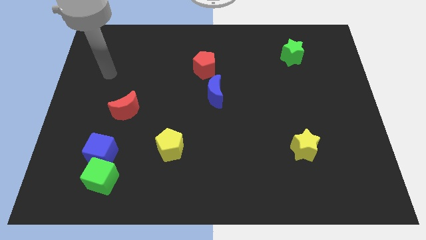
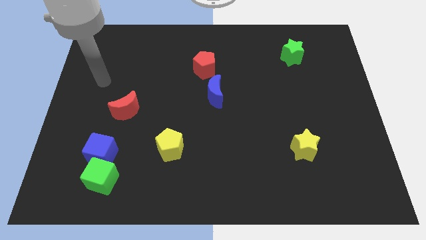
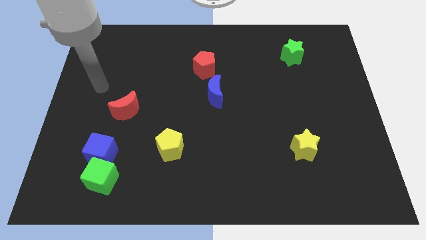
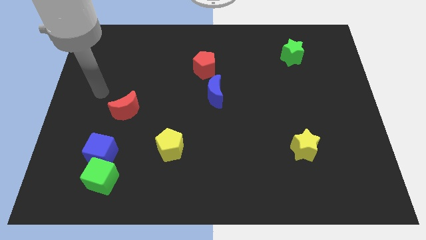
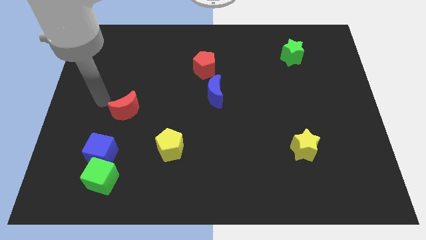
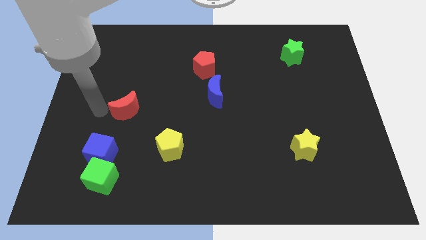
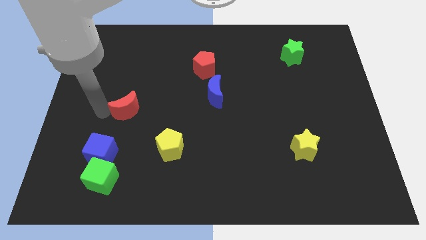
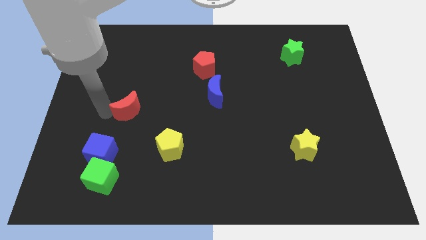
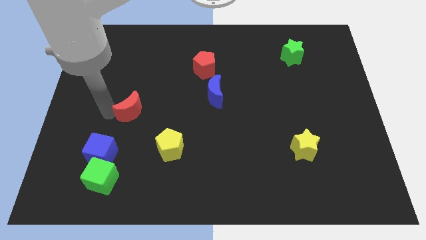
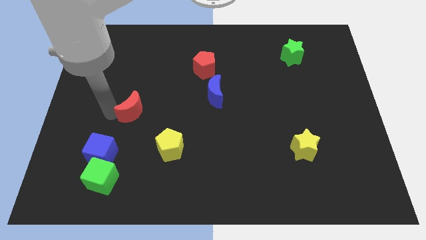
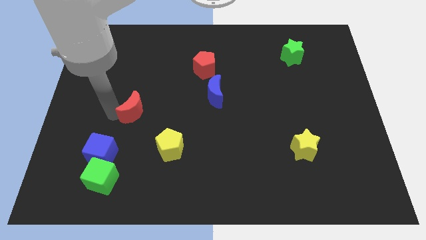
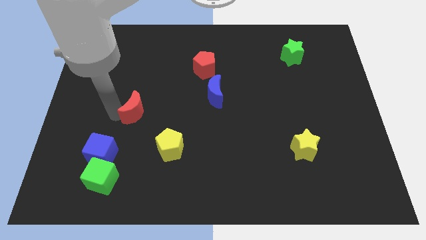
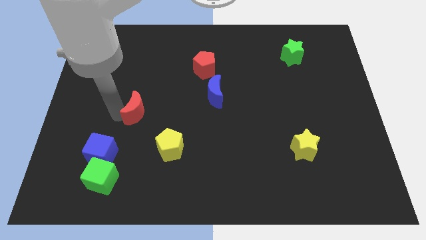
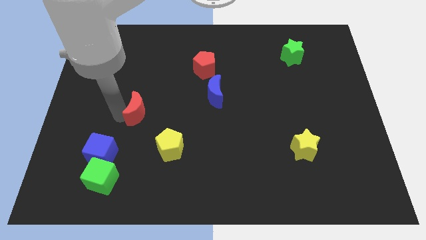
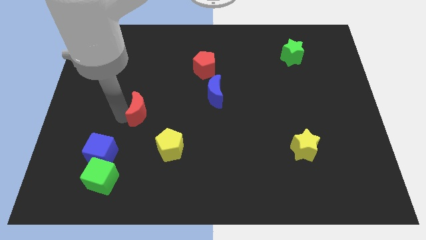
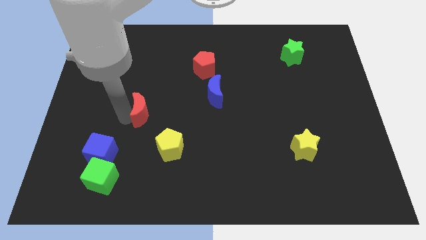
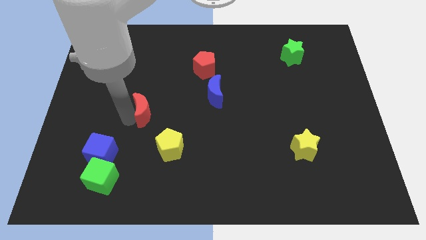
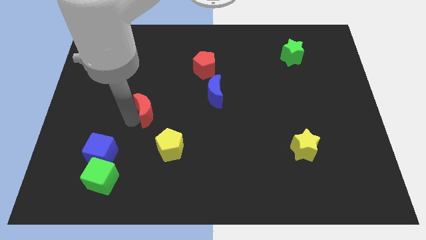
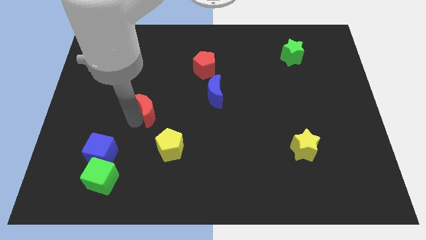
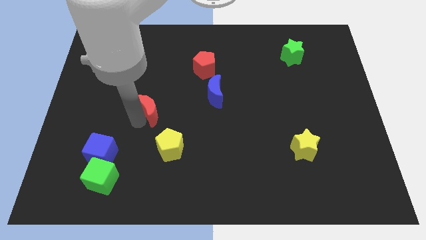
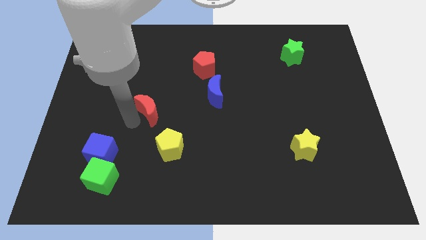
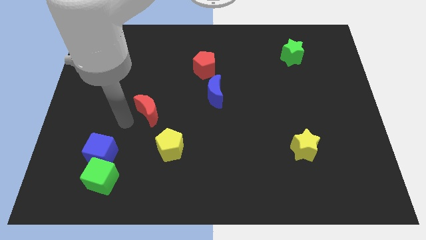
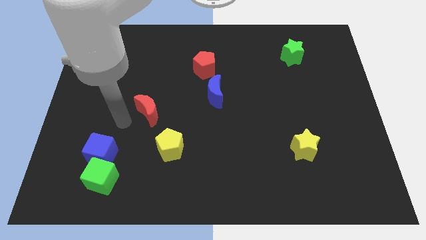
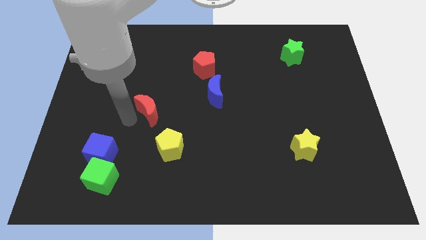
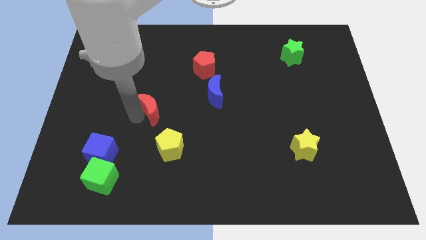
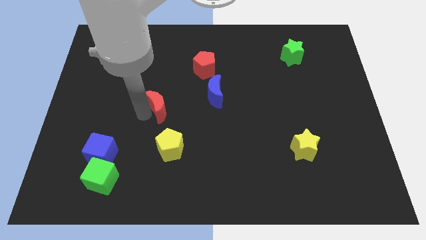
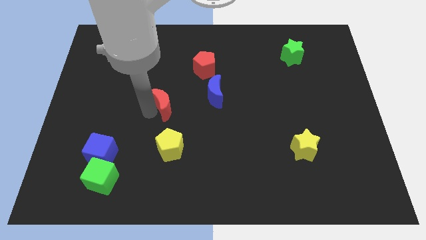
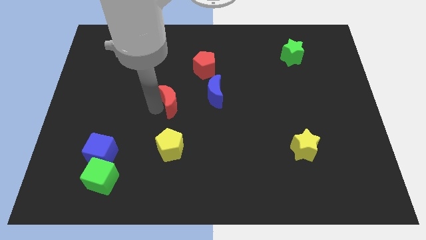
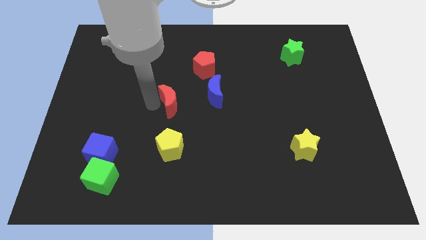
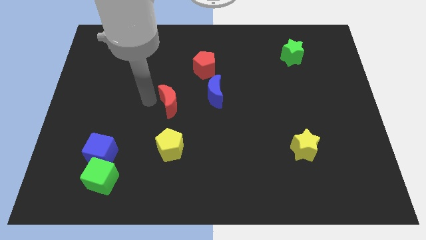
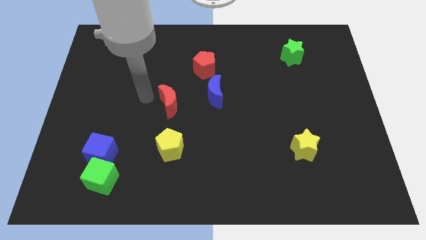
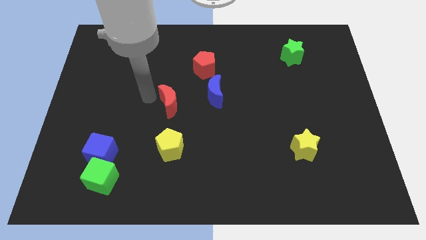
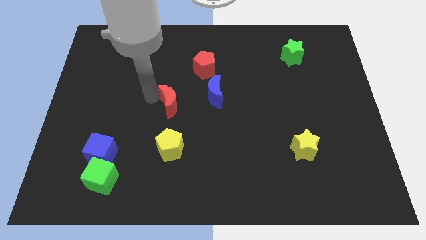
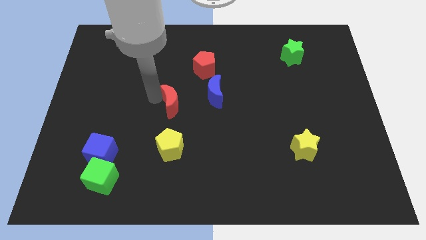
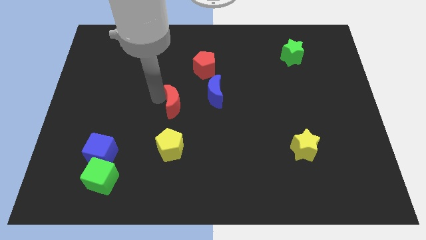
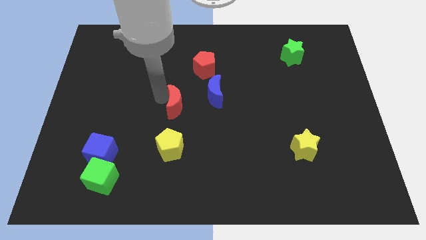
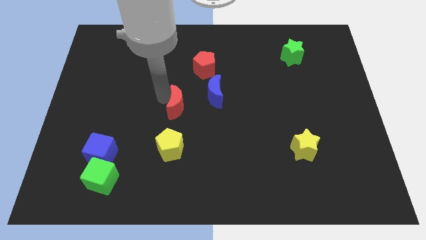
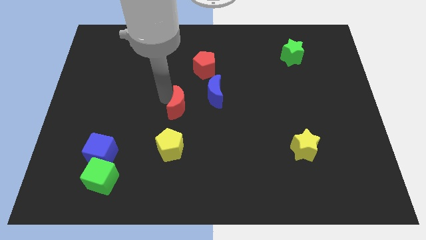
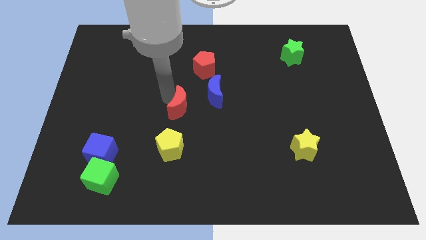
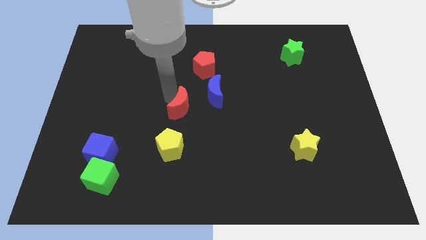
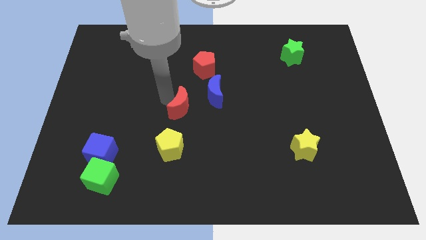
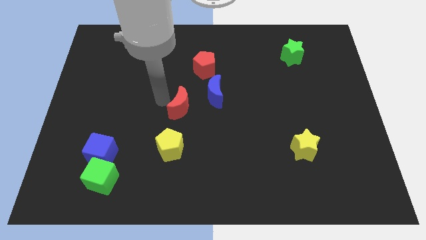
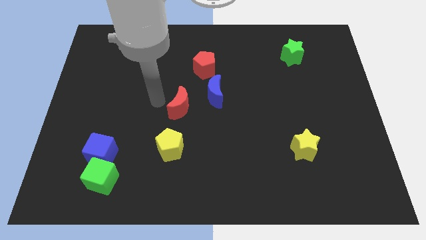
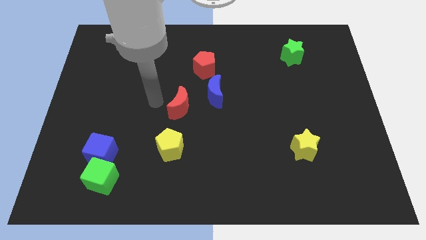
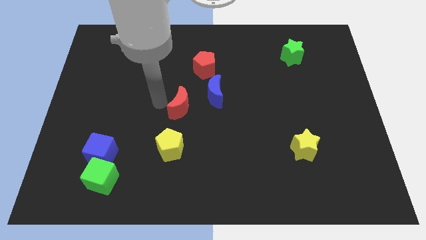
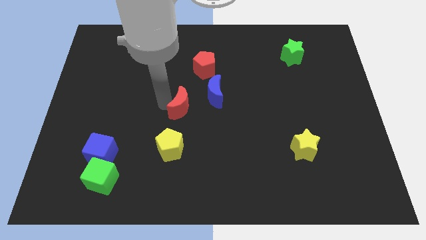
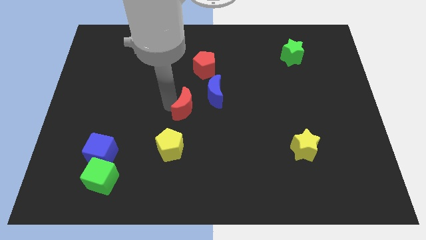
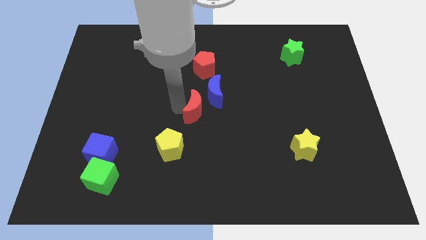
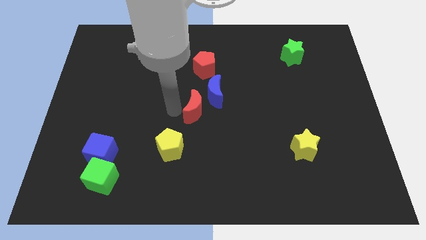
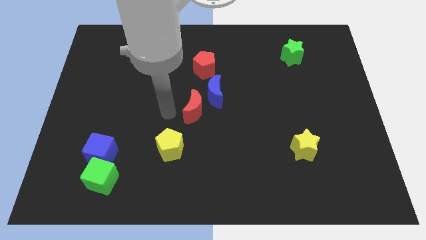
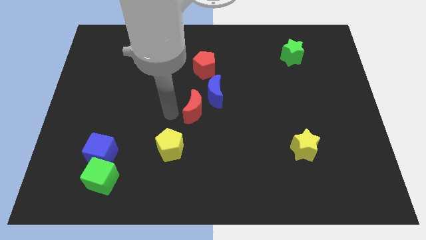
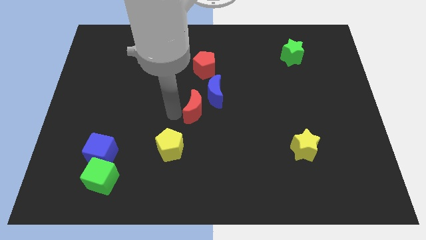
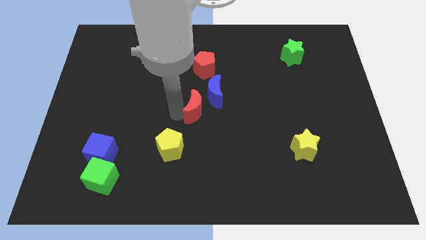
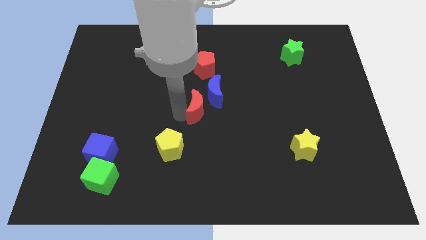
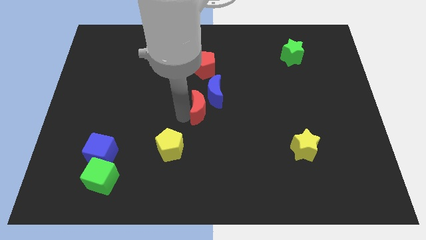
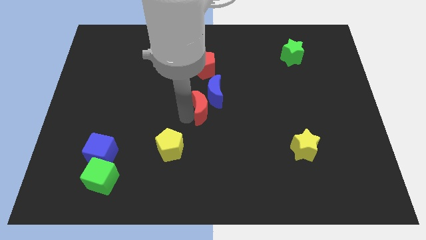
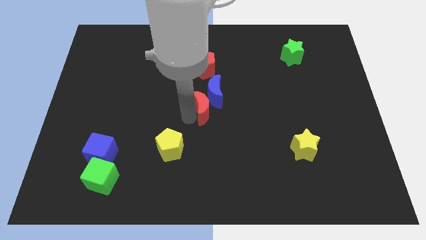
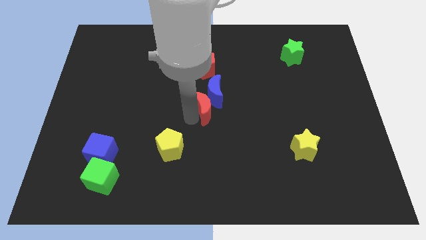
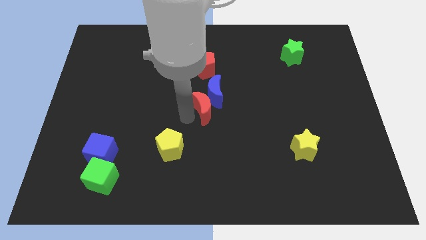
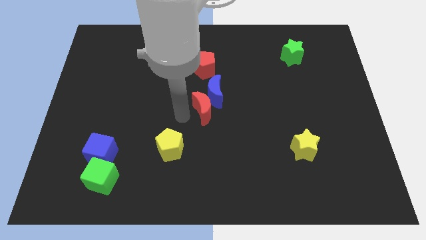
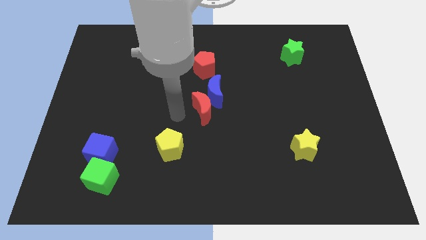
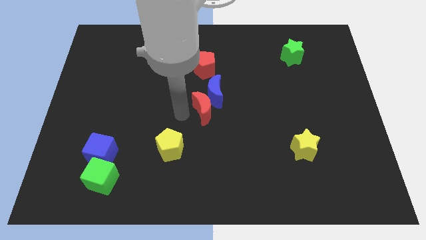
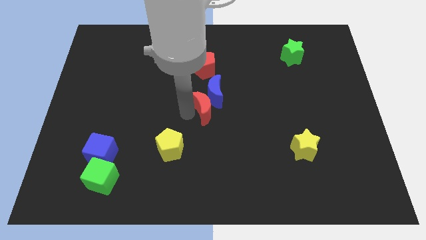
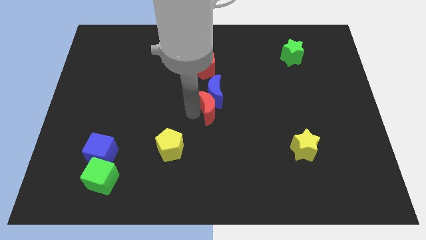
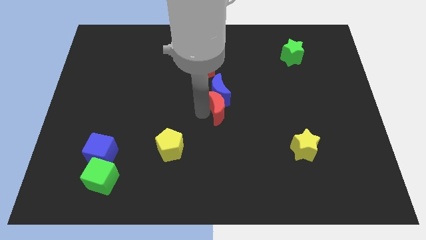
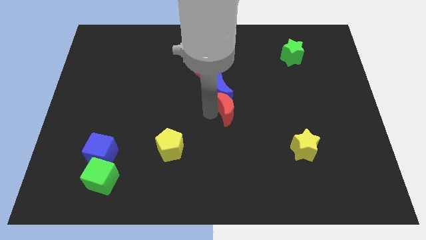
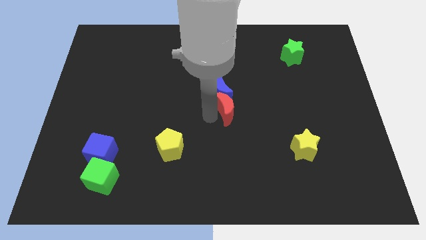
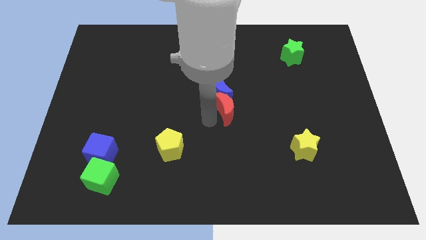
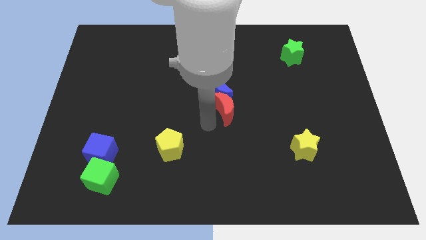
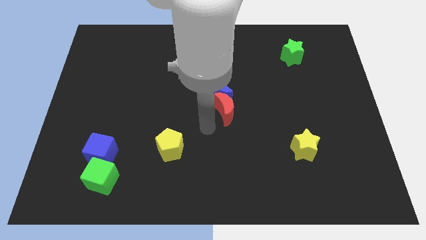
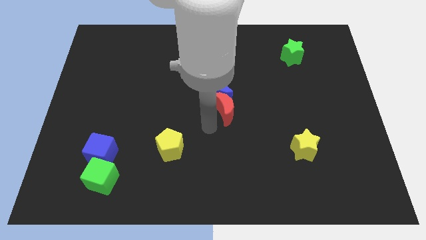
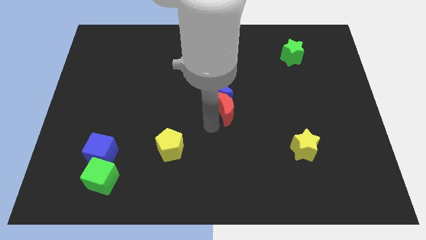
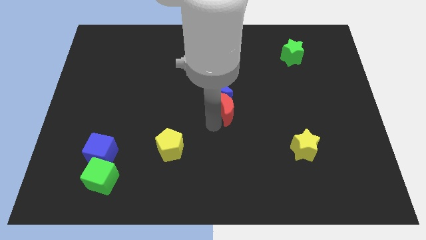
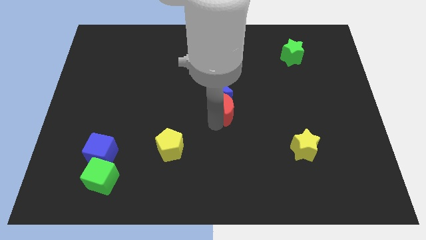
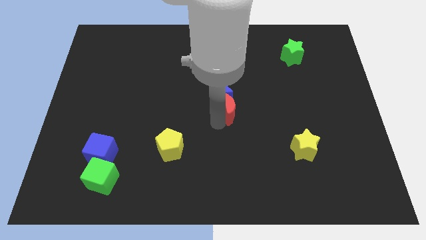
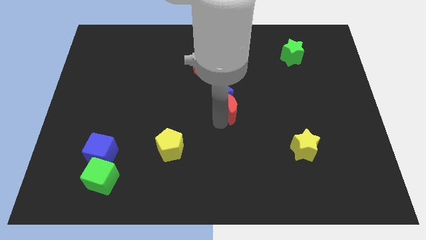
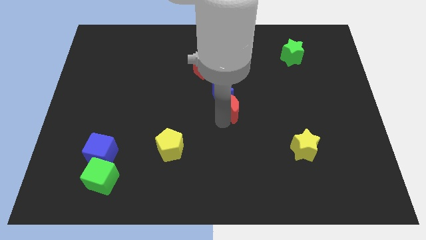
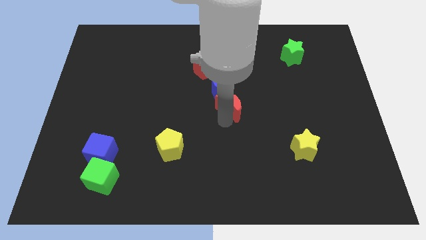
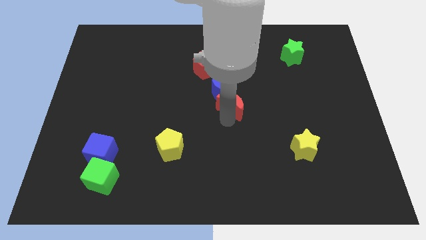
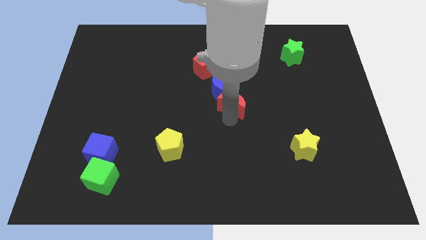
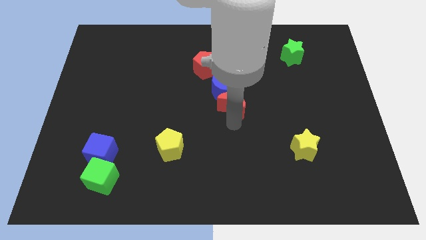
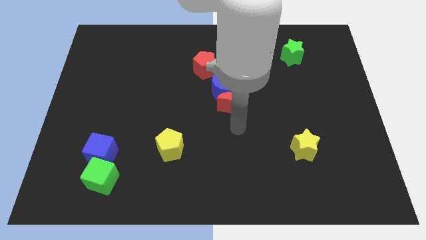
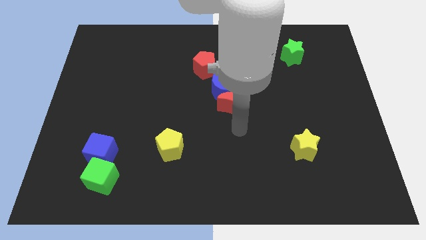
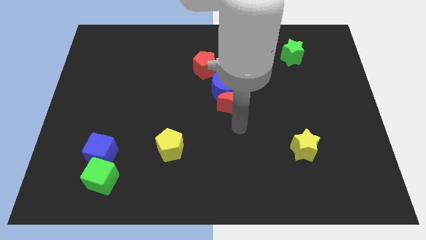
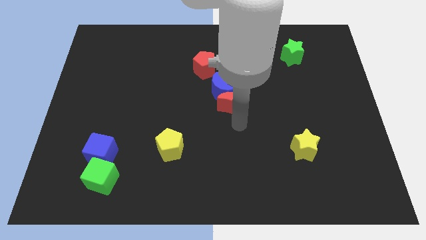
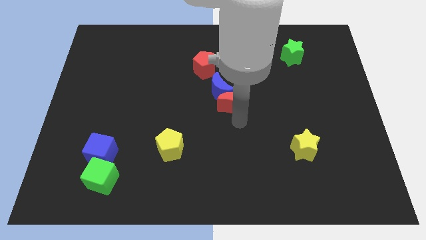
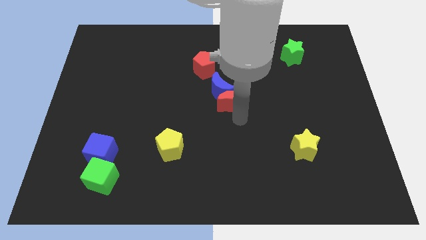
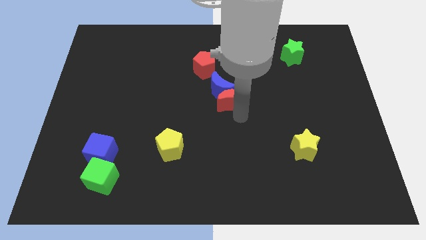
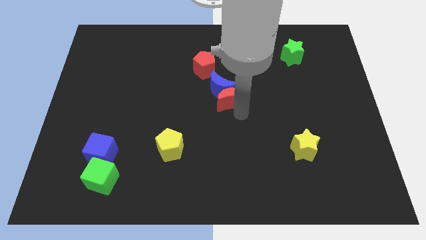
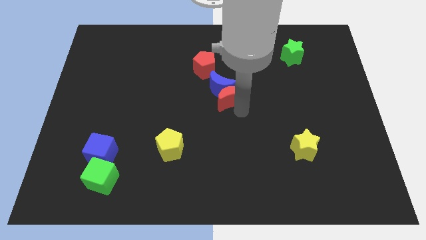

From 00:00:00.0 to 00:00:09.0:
push the red moon to the bottom right of the red pentagon
